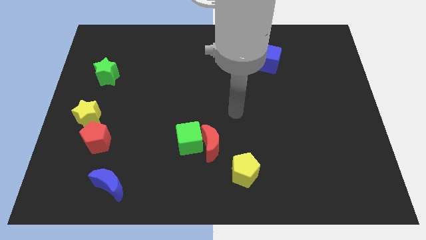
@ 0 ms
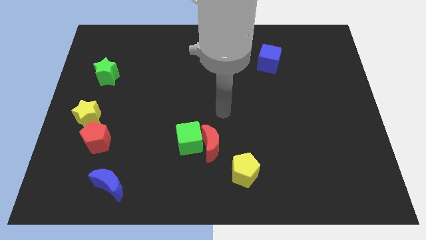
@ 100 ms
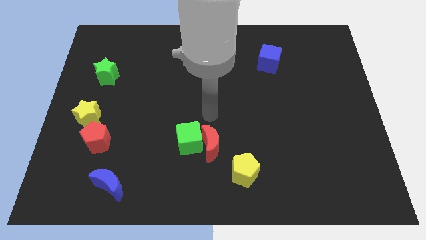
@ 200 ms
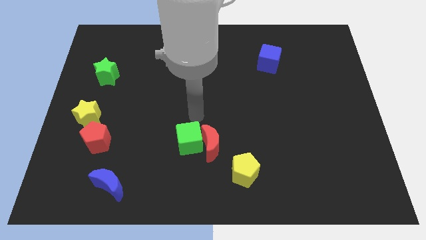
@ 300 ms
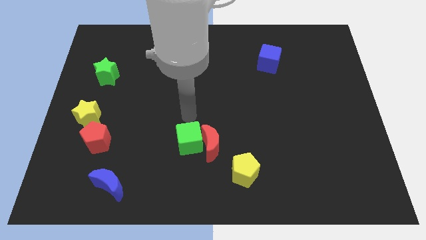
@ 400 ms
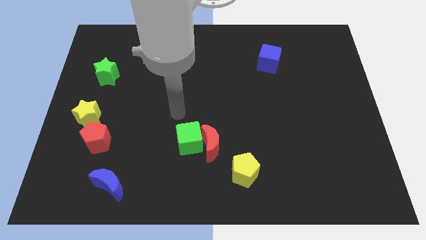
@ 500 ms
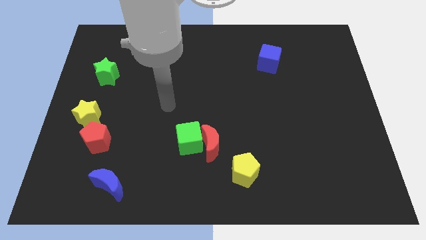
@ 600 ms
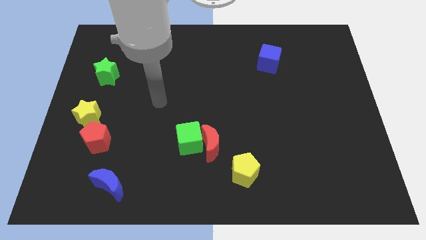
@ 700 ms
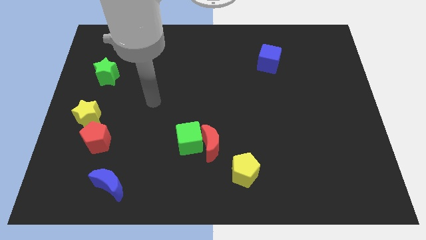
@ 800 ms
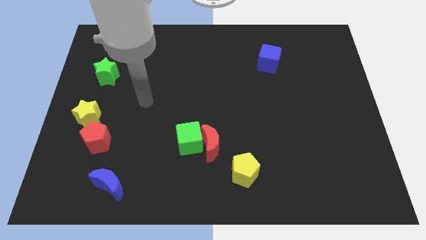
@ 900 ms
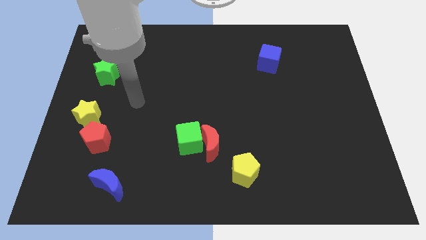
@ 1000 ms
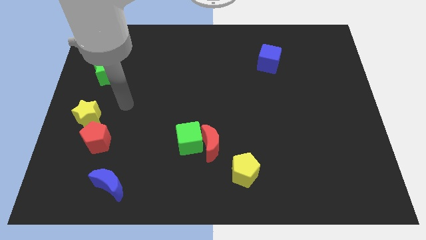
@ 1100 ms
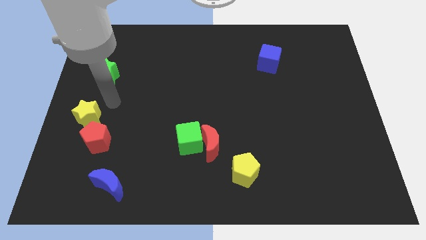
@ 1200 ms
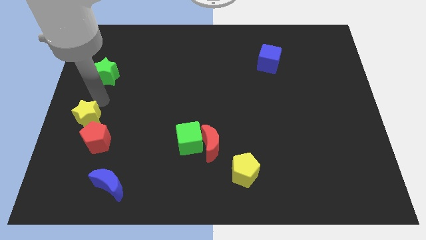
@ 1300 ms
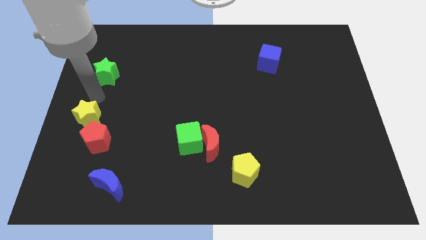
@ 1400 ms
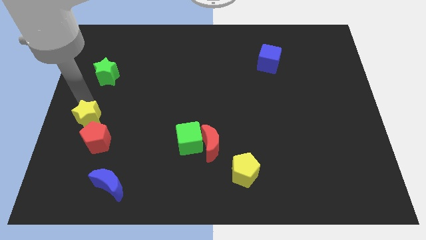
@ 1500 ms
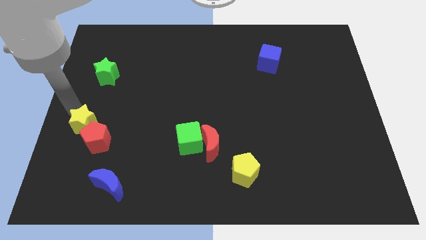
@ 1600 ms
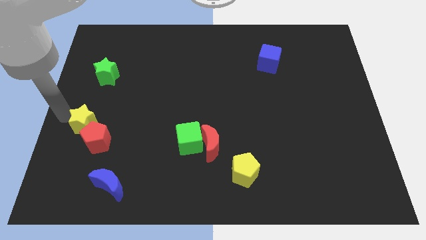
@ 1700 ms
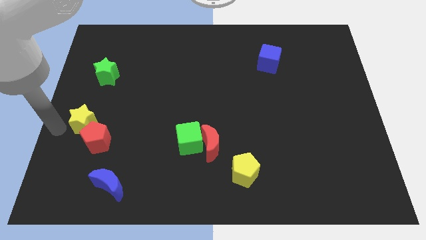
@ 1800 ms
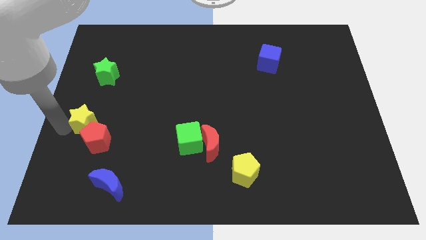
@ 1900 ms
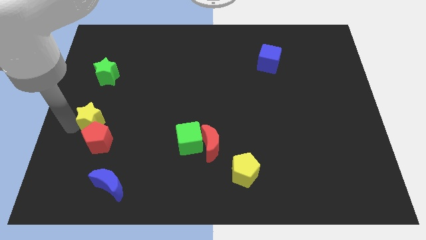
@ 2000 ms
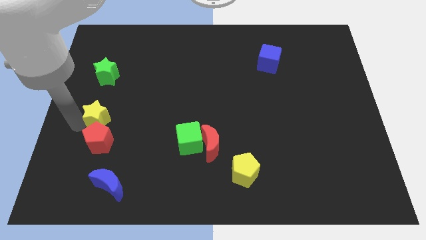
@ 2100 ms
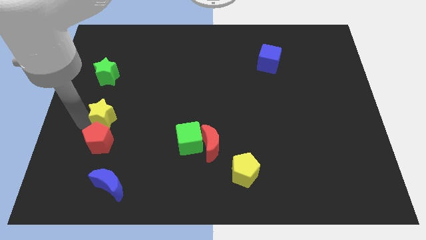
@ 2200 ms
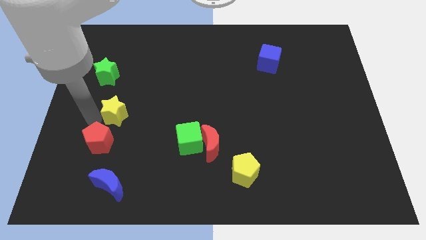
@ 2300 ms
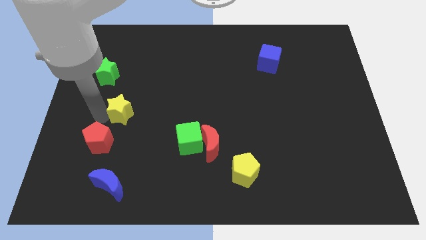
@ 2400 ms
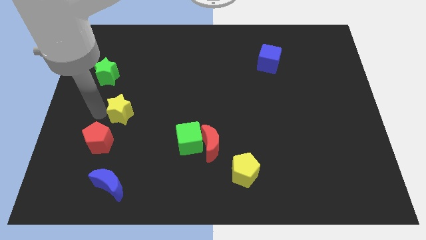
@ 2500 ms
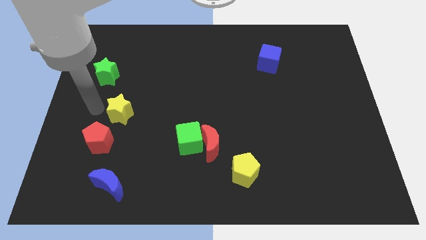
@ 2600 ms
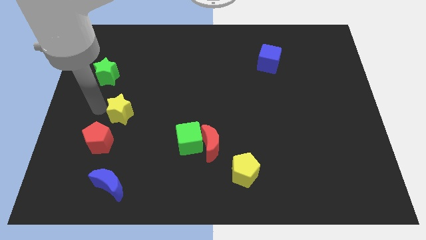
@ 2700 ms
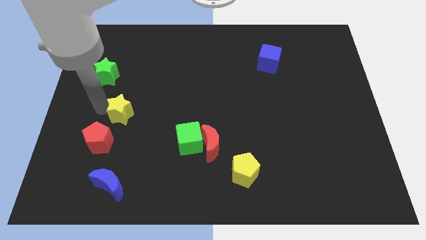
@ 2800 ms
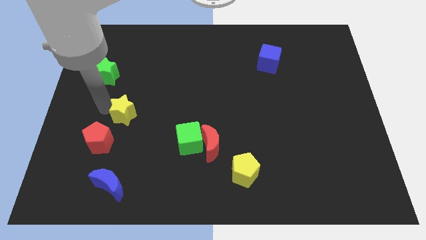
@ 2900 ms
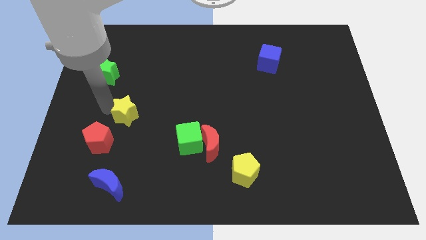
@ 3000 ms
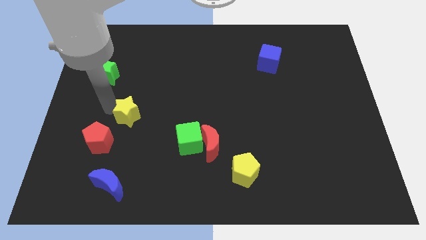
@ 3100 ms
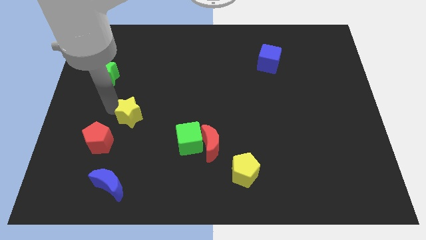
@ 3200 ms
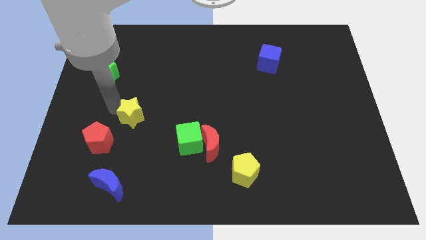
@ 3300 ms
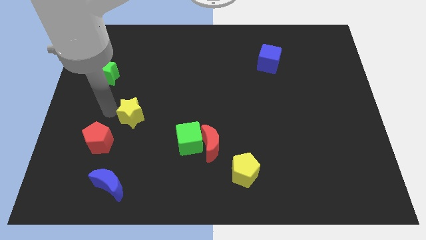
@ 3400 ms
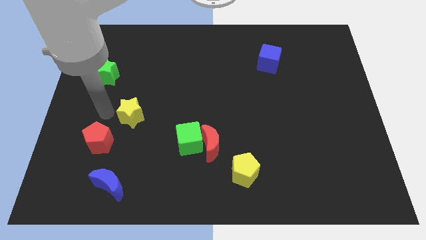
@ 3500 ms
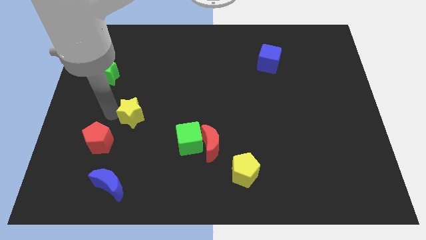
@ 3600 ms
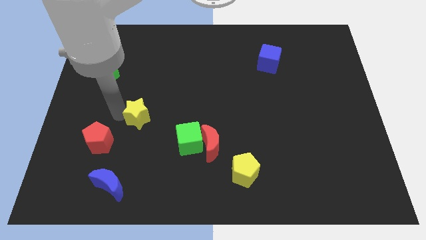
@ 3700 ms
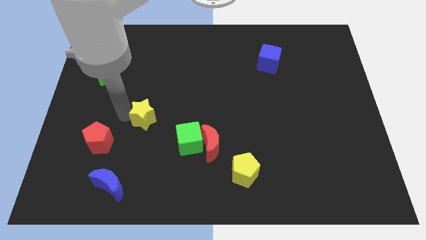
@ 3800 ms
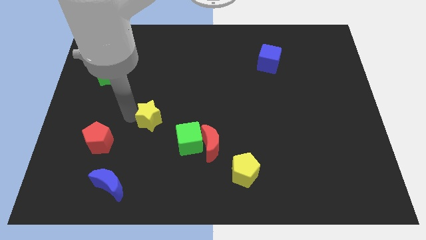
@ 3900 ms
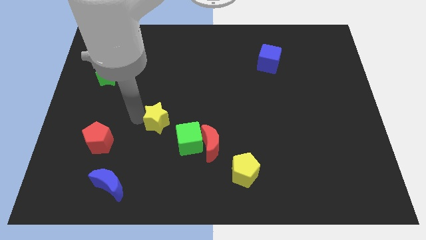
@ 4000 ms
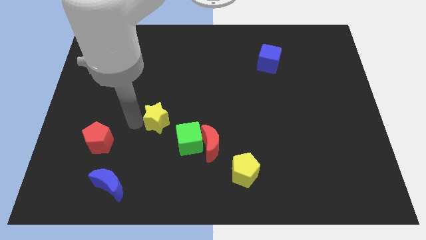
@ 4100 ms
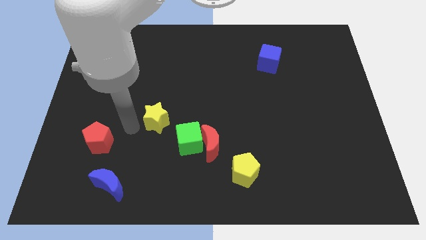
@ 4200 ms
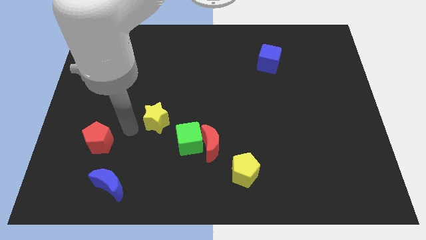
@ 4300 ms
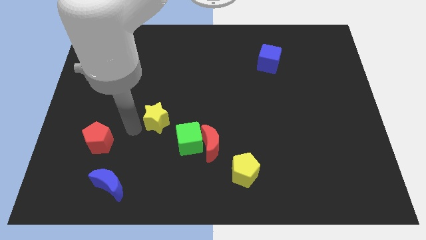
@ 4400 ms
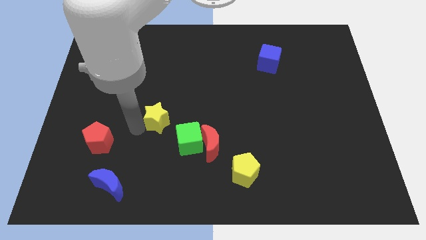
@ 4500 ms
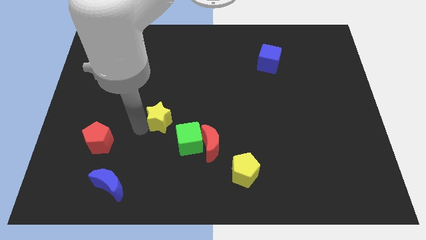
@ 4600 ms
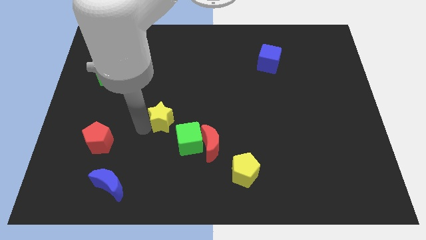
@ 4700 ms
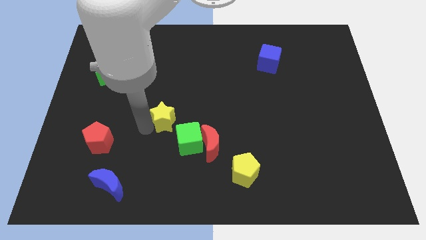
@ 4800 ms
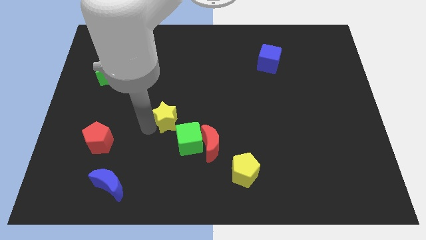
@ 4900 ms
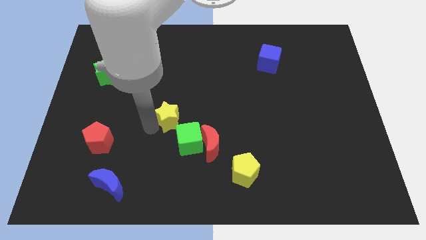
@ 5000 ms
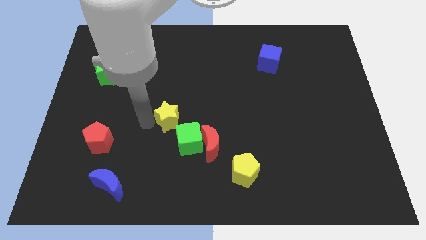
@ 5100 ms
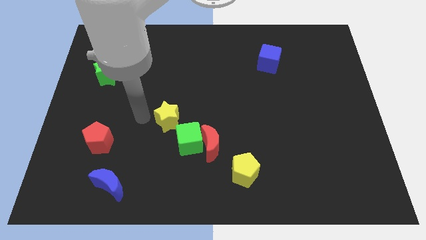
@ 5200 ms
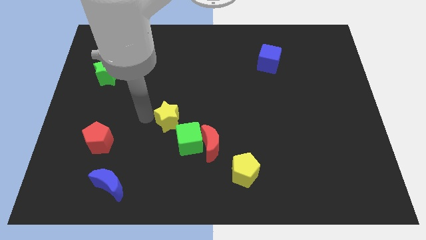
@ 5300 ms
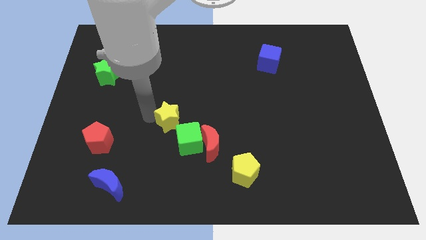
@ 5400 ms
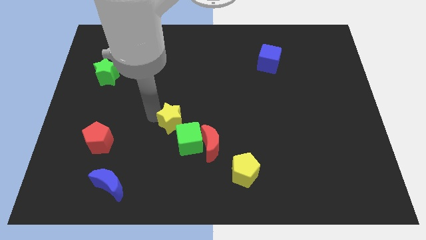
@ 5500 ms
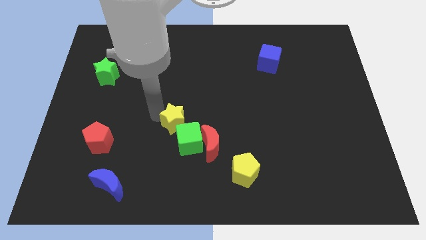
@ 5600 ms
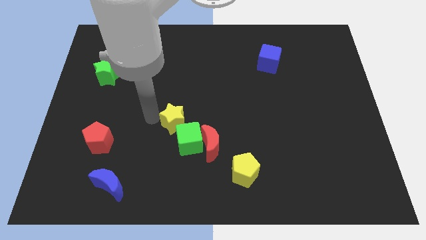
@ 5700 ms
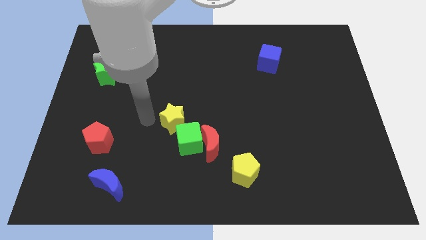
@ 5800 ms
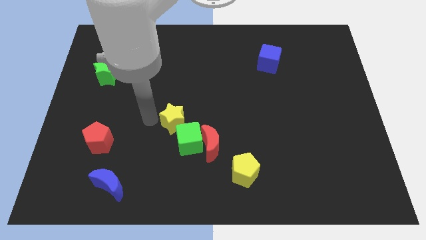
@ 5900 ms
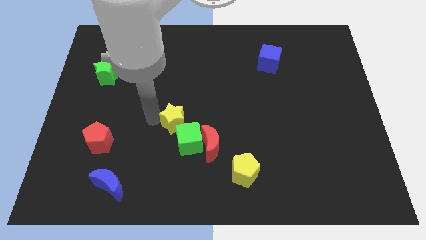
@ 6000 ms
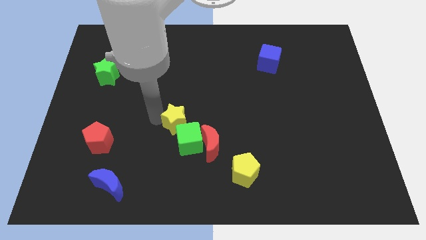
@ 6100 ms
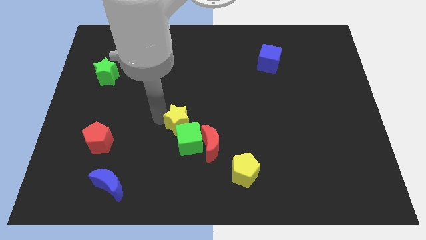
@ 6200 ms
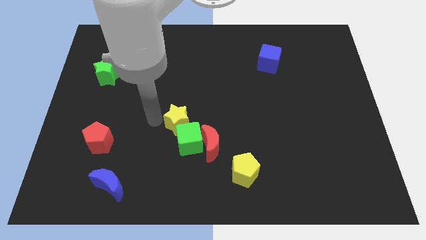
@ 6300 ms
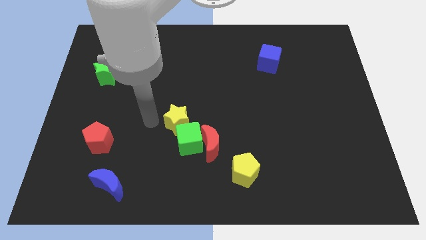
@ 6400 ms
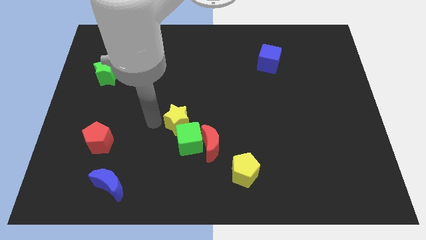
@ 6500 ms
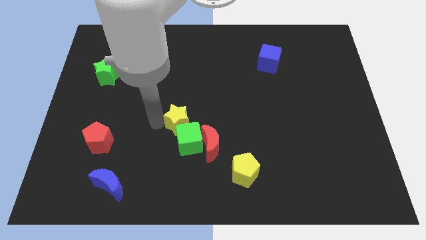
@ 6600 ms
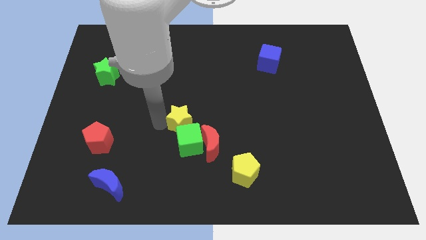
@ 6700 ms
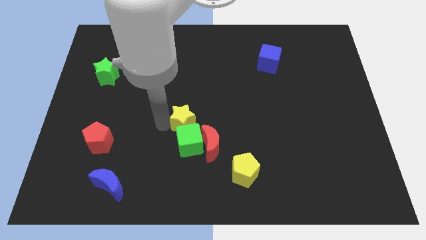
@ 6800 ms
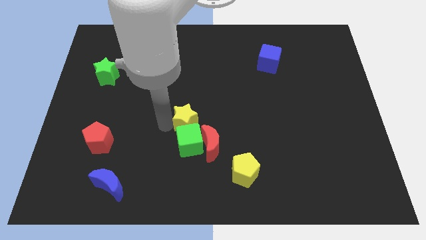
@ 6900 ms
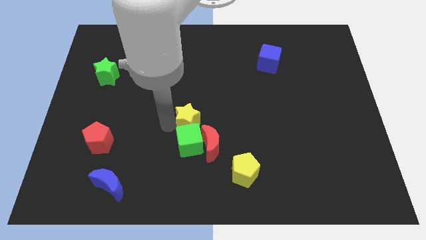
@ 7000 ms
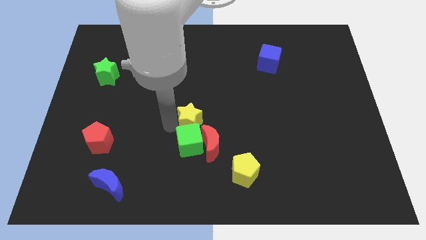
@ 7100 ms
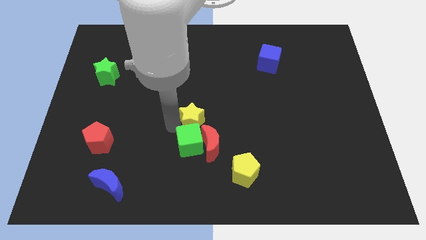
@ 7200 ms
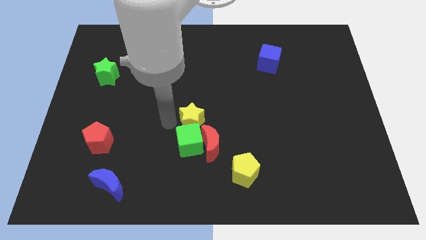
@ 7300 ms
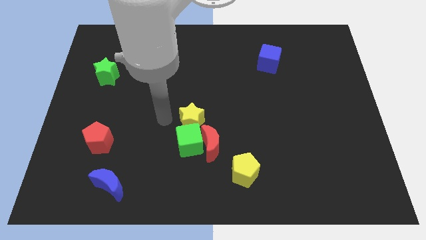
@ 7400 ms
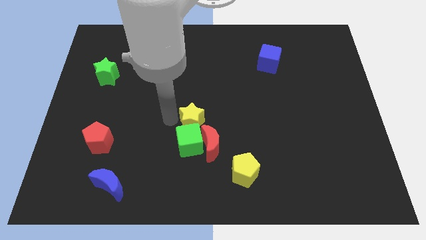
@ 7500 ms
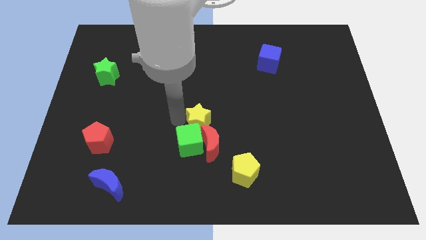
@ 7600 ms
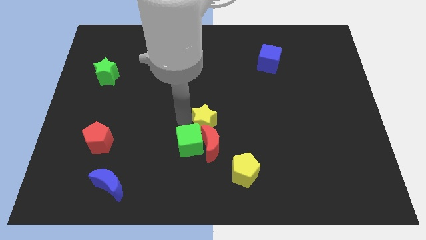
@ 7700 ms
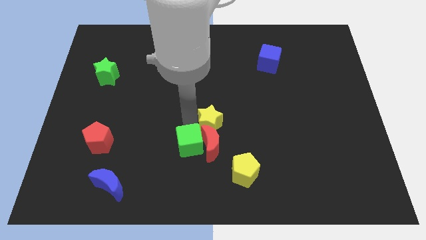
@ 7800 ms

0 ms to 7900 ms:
move the yellow star to the top right side of the red moon
